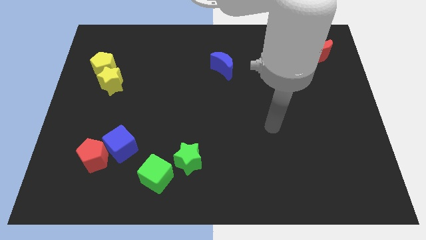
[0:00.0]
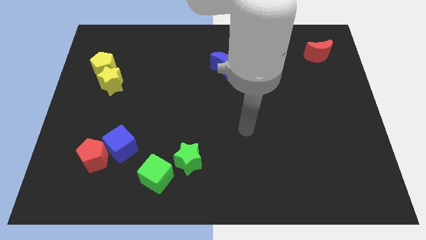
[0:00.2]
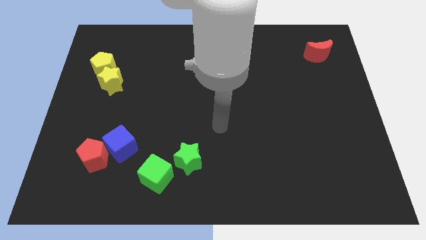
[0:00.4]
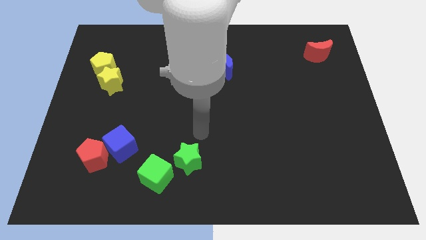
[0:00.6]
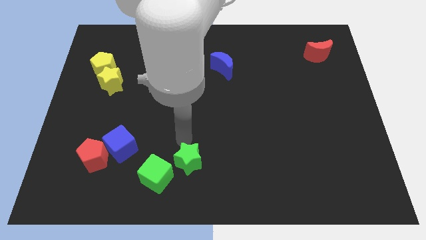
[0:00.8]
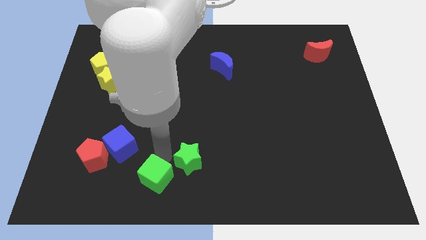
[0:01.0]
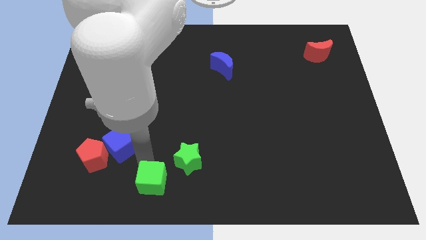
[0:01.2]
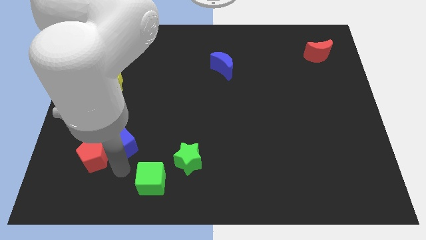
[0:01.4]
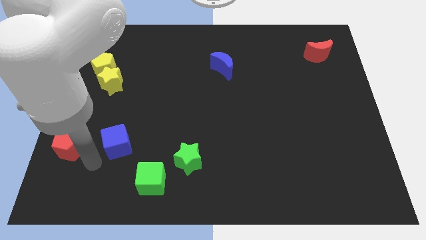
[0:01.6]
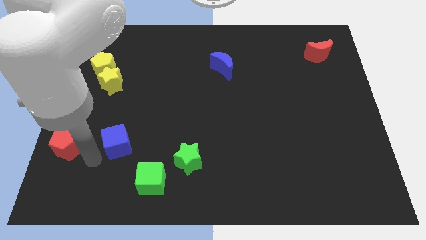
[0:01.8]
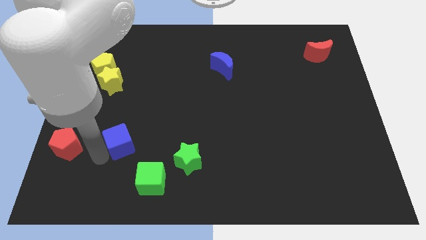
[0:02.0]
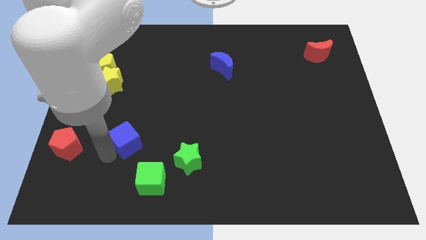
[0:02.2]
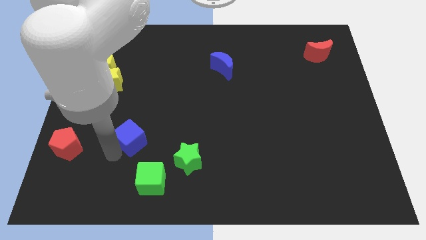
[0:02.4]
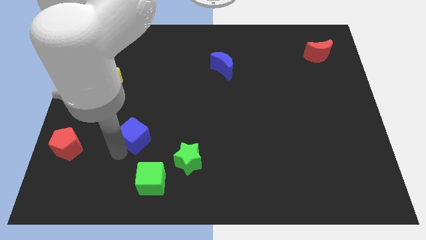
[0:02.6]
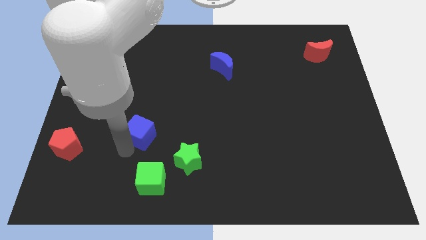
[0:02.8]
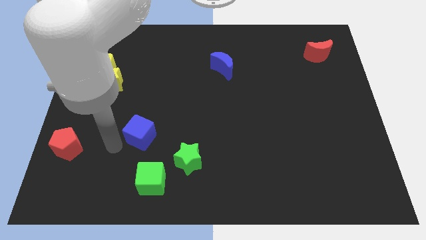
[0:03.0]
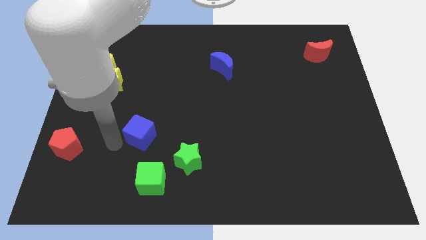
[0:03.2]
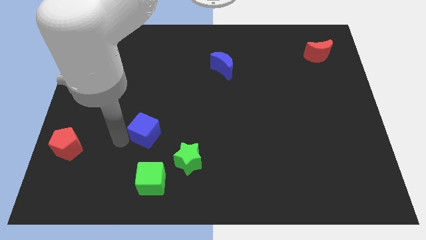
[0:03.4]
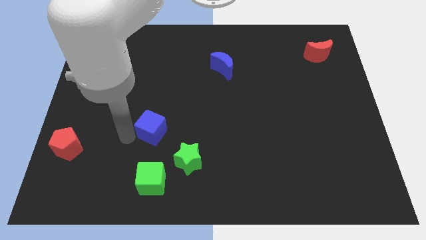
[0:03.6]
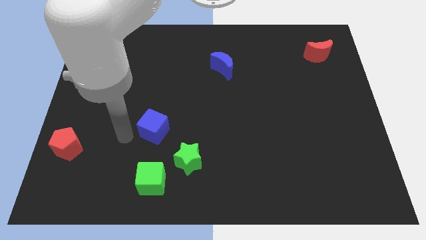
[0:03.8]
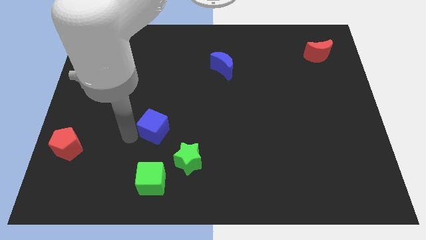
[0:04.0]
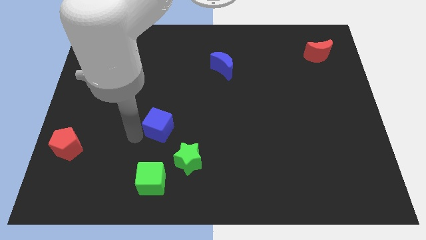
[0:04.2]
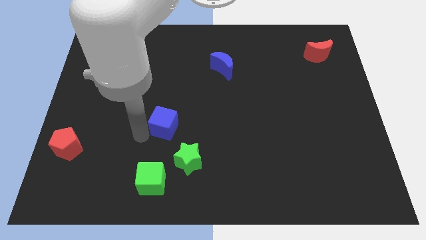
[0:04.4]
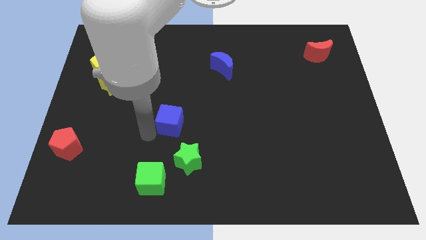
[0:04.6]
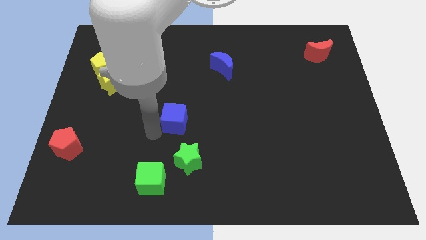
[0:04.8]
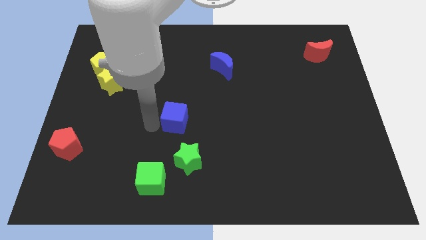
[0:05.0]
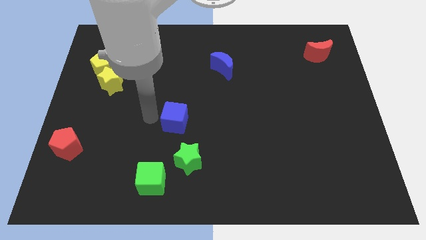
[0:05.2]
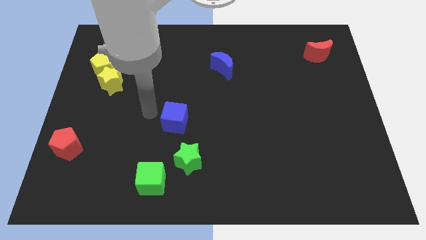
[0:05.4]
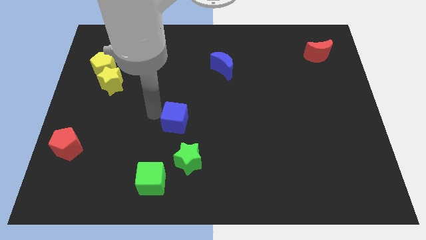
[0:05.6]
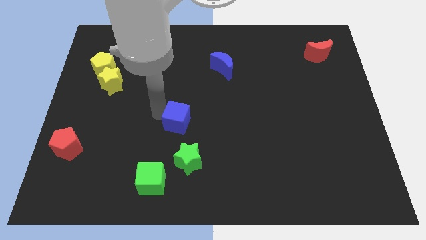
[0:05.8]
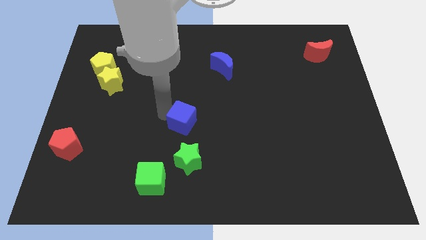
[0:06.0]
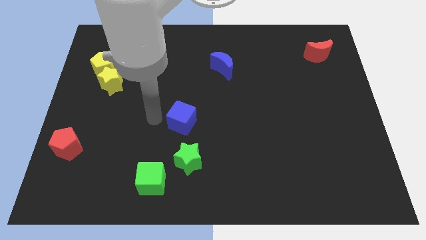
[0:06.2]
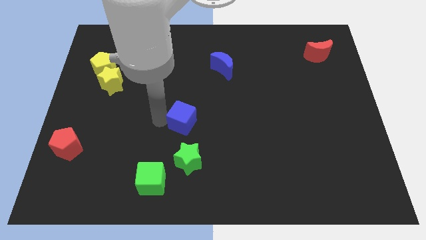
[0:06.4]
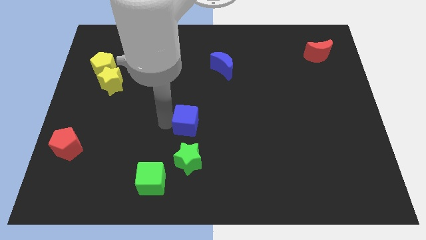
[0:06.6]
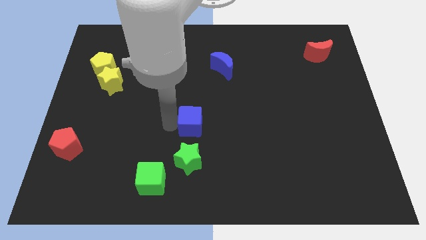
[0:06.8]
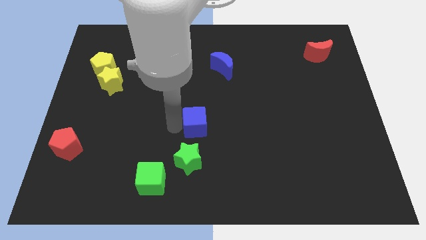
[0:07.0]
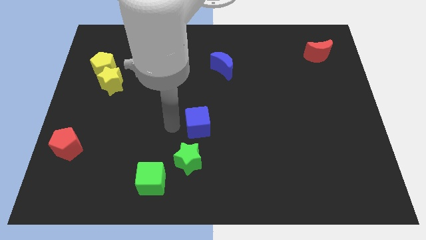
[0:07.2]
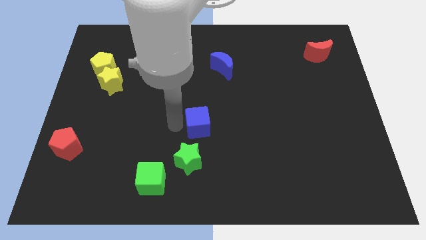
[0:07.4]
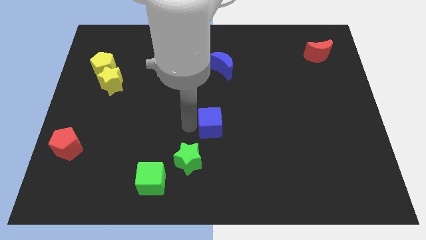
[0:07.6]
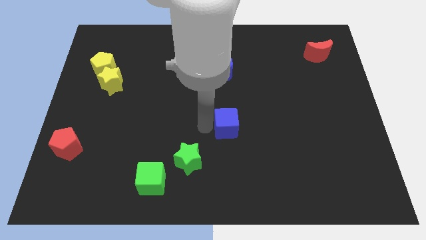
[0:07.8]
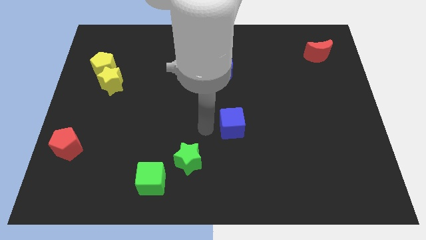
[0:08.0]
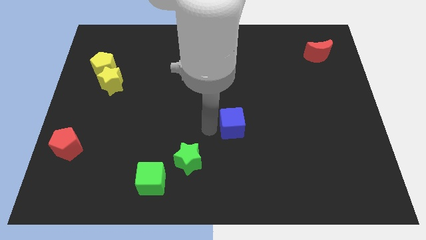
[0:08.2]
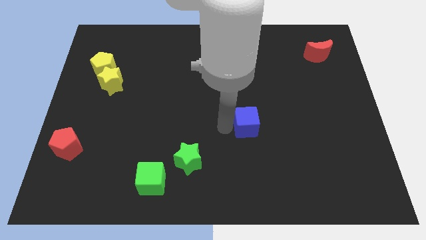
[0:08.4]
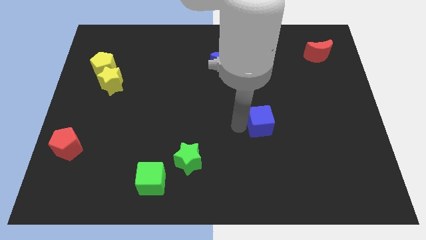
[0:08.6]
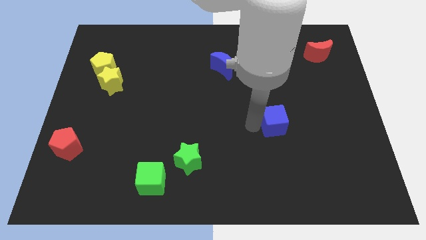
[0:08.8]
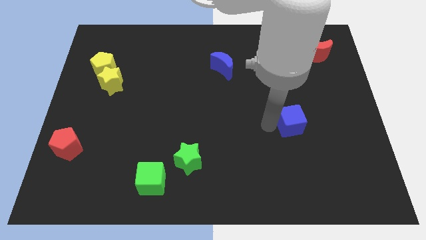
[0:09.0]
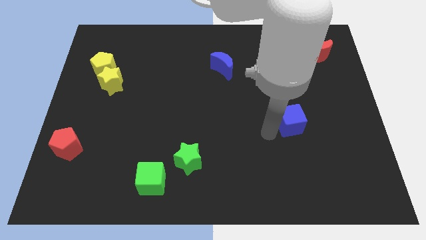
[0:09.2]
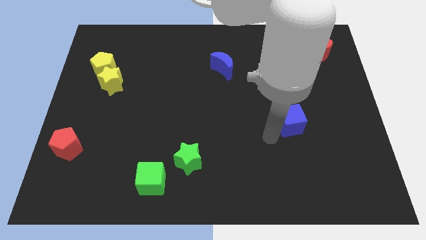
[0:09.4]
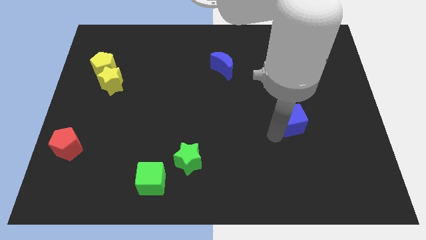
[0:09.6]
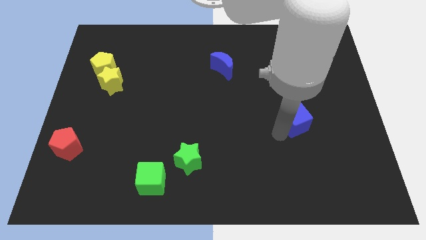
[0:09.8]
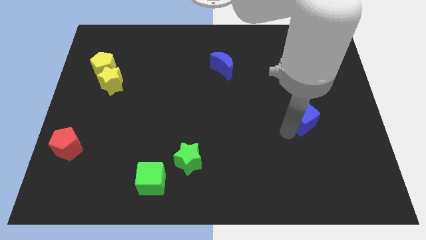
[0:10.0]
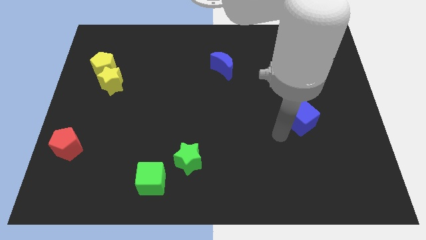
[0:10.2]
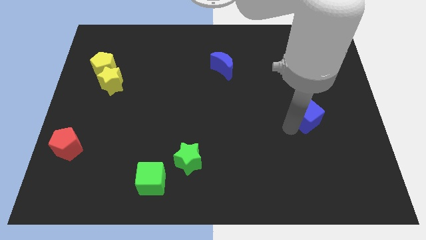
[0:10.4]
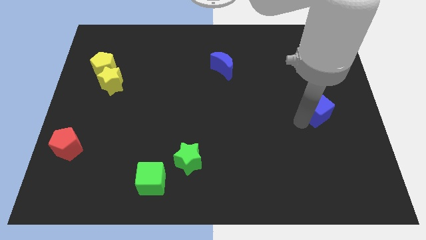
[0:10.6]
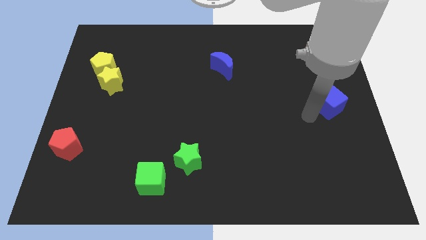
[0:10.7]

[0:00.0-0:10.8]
push the blue cube to the center right
